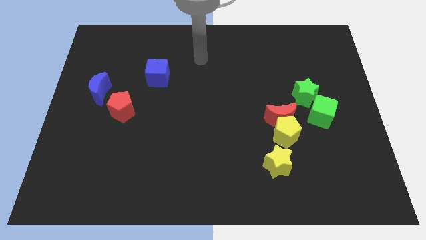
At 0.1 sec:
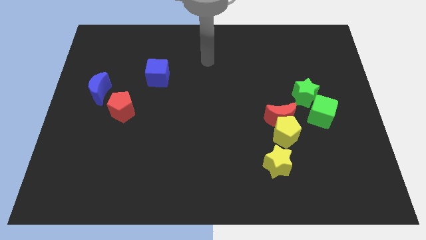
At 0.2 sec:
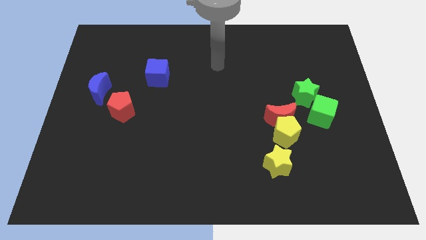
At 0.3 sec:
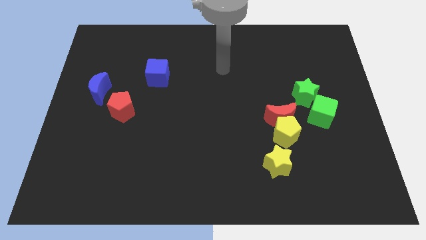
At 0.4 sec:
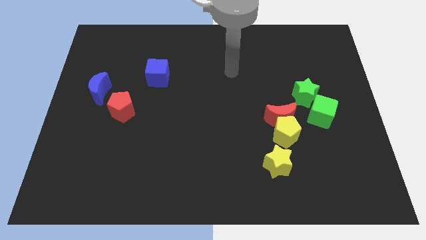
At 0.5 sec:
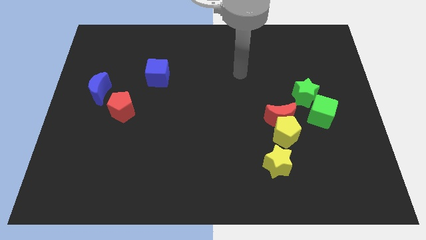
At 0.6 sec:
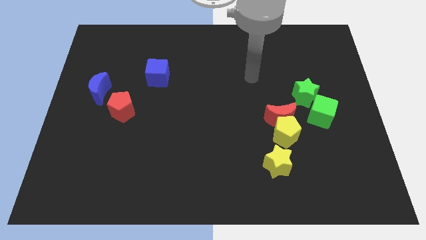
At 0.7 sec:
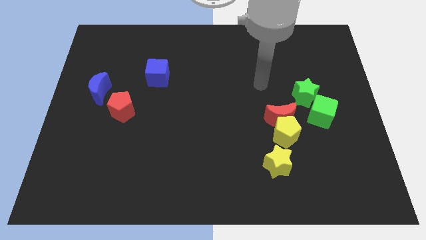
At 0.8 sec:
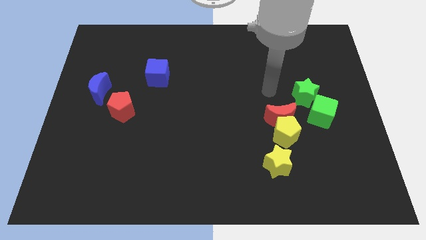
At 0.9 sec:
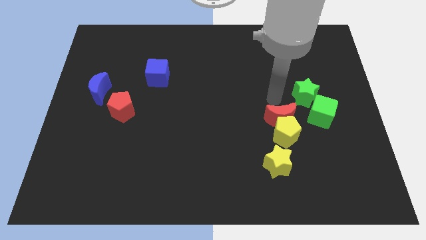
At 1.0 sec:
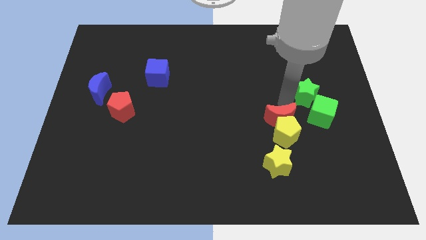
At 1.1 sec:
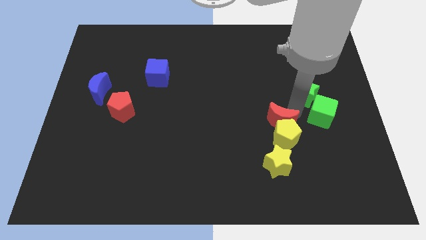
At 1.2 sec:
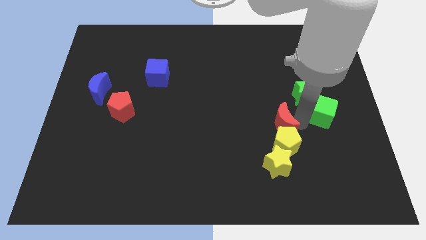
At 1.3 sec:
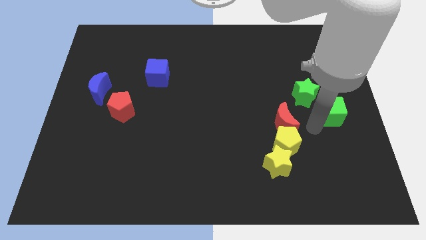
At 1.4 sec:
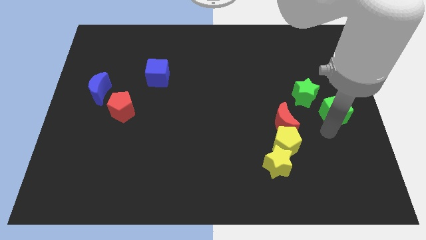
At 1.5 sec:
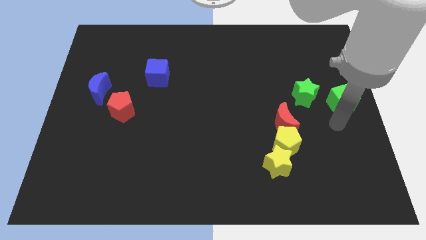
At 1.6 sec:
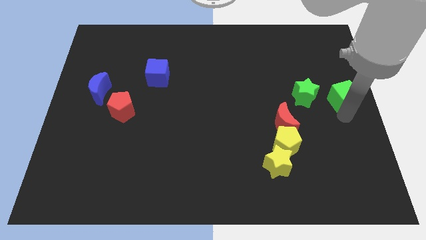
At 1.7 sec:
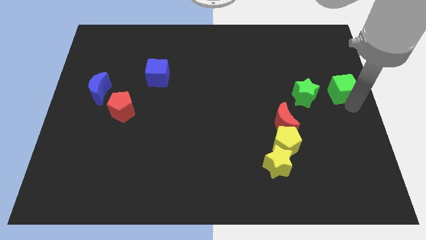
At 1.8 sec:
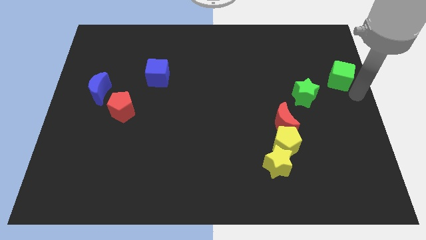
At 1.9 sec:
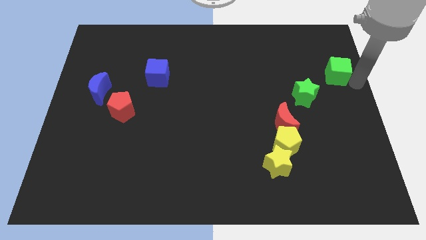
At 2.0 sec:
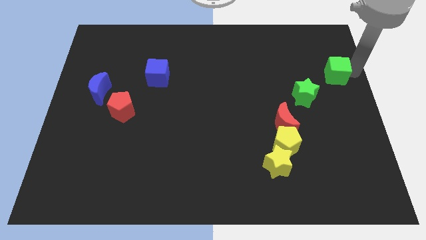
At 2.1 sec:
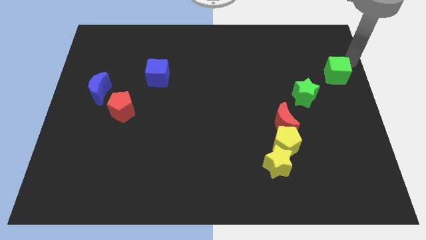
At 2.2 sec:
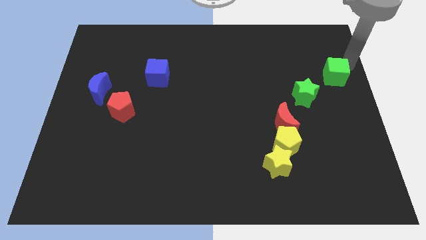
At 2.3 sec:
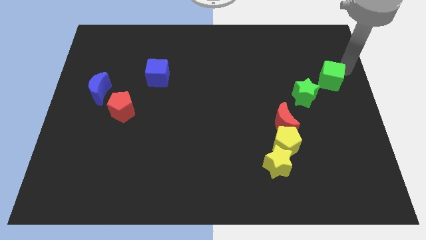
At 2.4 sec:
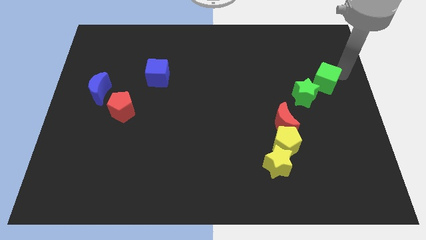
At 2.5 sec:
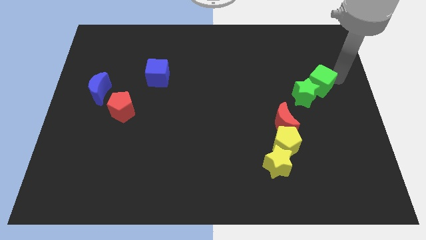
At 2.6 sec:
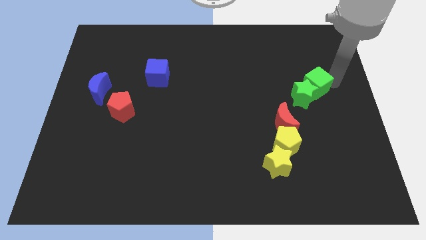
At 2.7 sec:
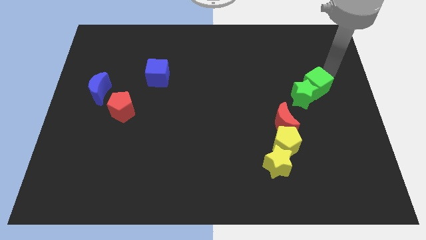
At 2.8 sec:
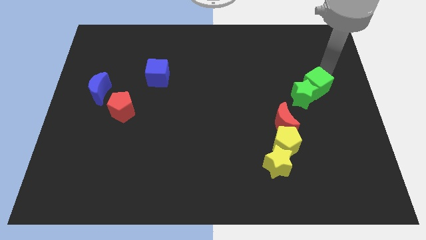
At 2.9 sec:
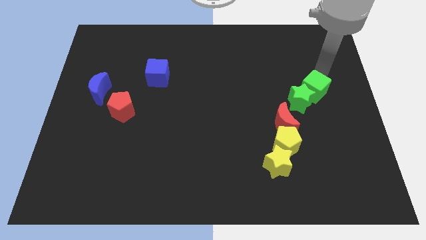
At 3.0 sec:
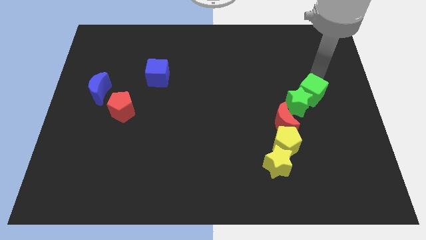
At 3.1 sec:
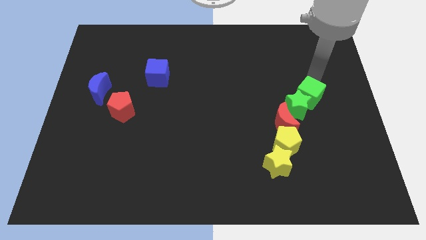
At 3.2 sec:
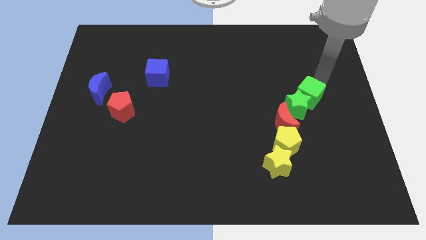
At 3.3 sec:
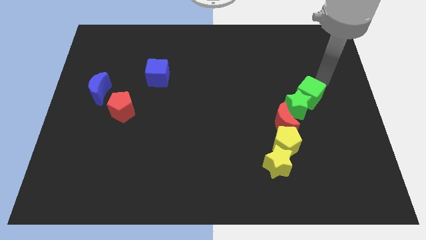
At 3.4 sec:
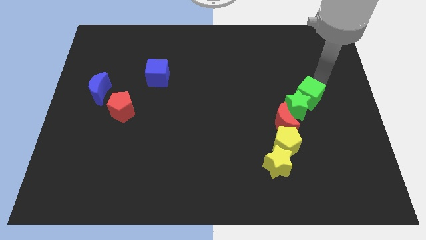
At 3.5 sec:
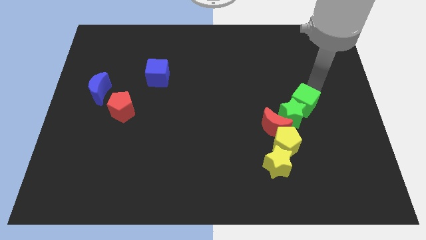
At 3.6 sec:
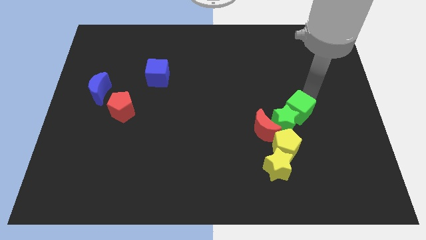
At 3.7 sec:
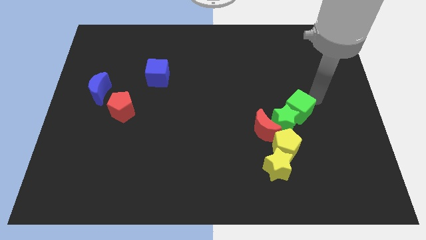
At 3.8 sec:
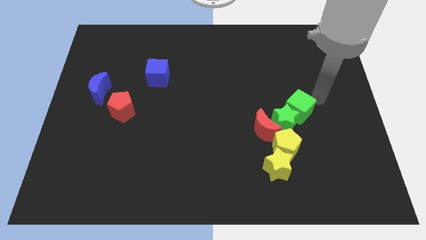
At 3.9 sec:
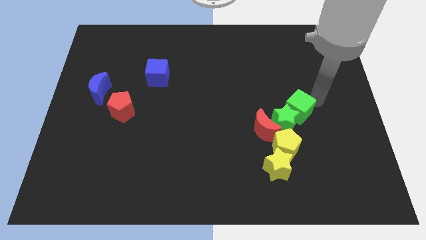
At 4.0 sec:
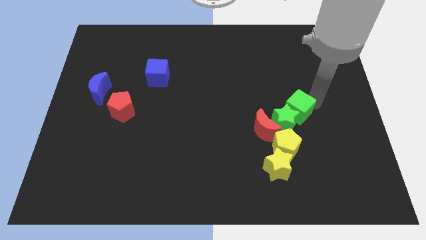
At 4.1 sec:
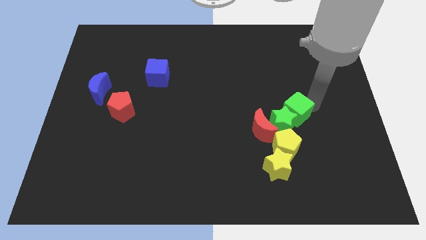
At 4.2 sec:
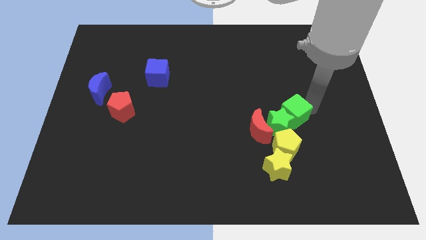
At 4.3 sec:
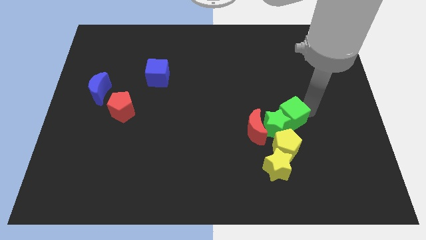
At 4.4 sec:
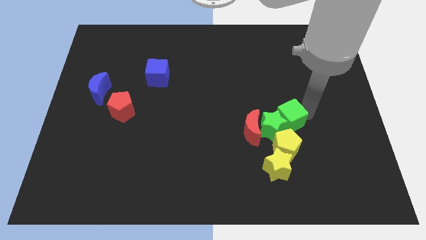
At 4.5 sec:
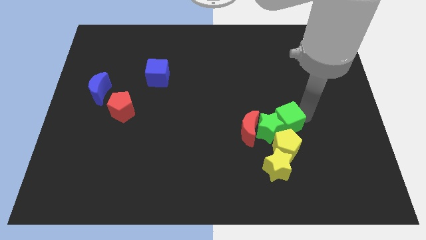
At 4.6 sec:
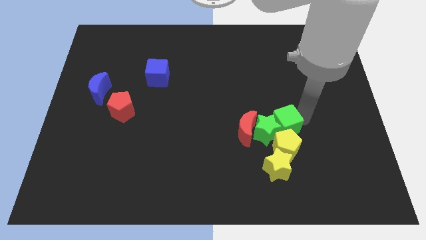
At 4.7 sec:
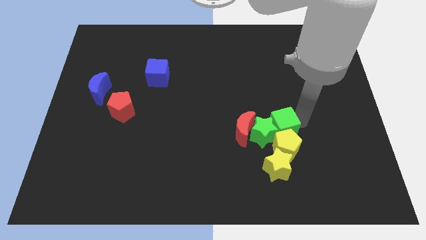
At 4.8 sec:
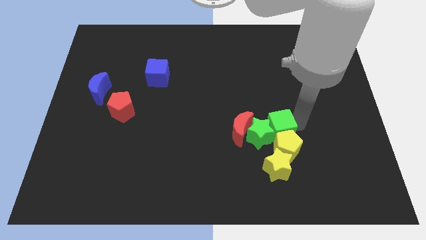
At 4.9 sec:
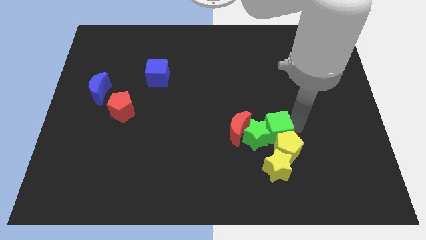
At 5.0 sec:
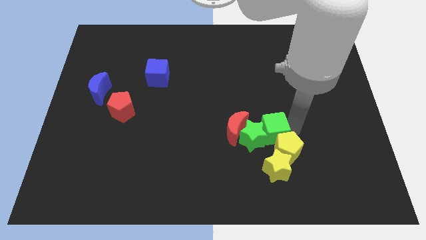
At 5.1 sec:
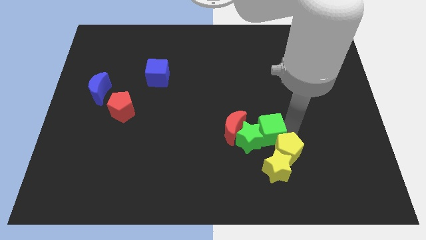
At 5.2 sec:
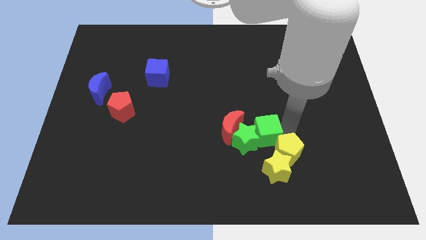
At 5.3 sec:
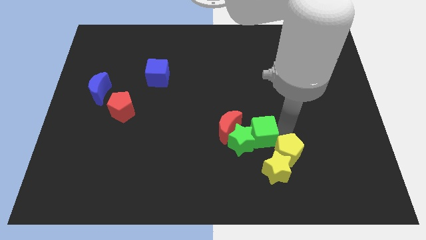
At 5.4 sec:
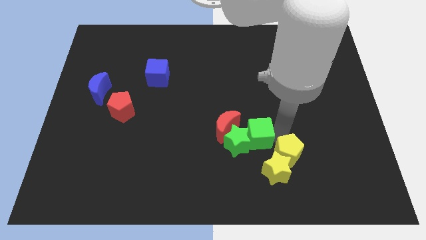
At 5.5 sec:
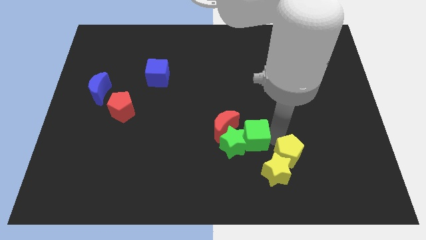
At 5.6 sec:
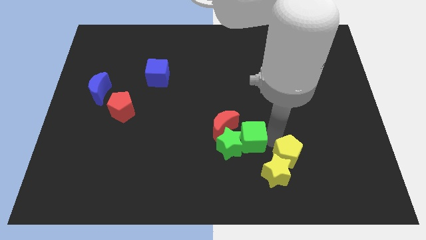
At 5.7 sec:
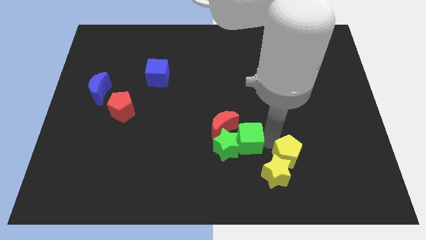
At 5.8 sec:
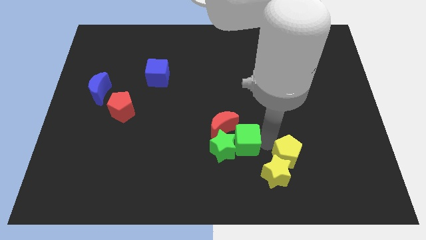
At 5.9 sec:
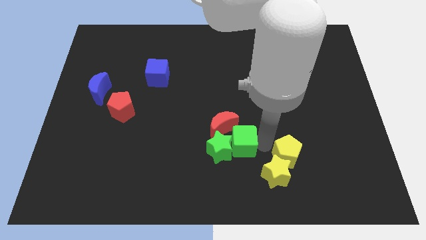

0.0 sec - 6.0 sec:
slide the green cube to the red moon

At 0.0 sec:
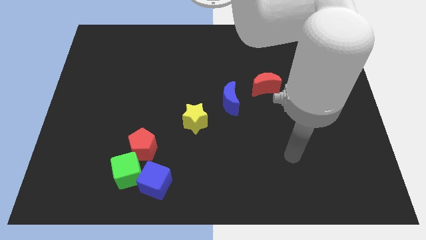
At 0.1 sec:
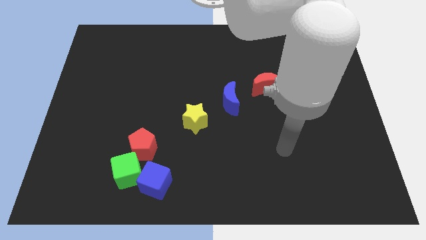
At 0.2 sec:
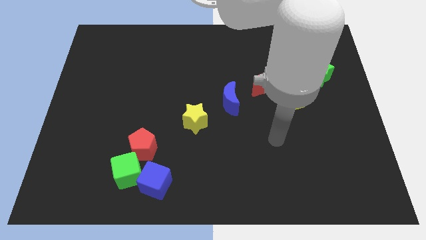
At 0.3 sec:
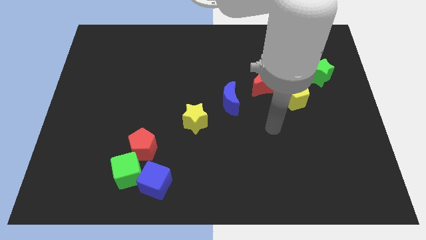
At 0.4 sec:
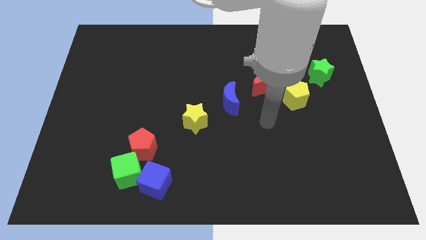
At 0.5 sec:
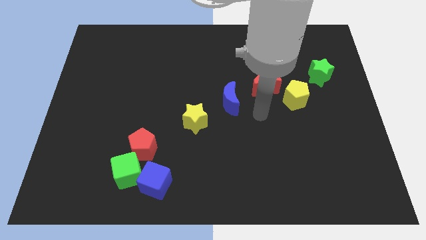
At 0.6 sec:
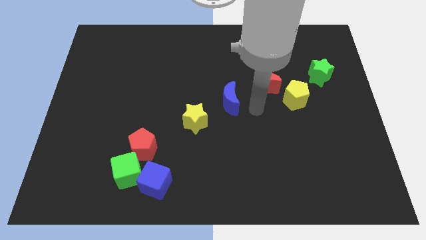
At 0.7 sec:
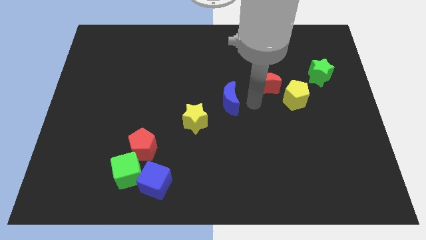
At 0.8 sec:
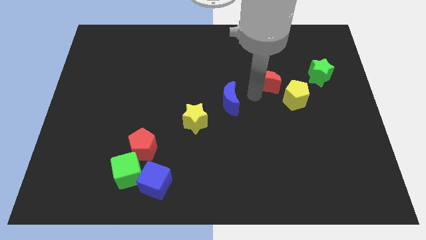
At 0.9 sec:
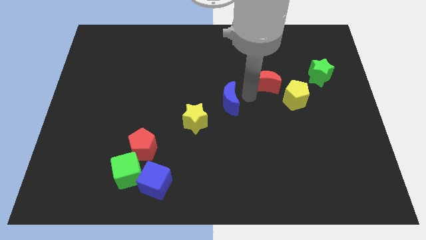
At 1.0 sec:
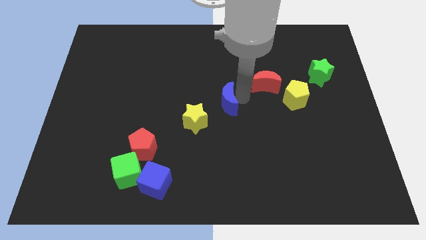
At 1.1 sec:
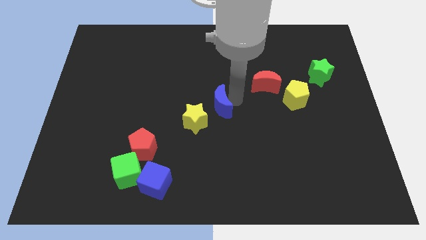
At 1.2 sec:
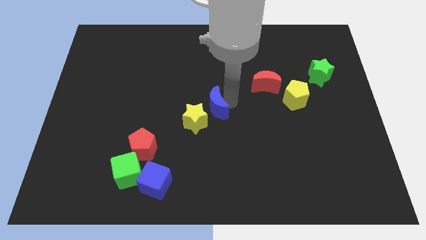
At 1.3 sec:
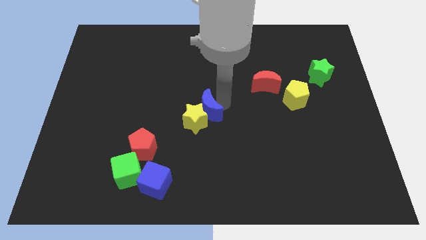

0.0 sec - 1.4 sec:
put the blue moon towards the yellow star

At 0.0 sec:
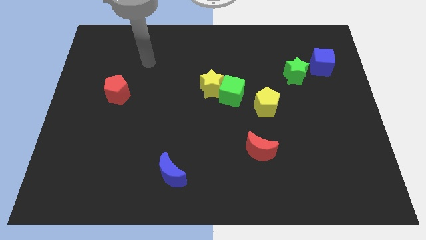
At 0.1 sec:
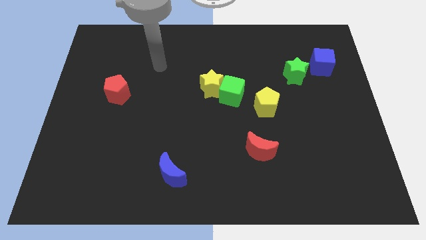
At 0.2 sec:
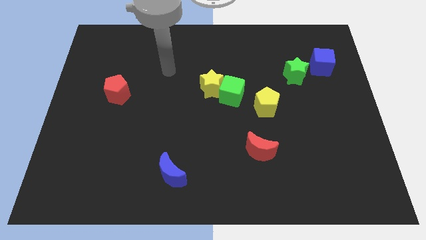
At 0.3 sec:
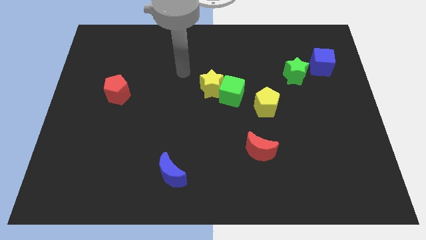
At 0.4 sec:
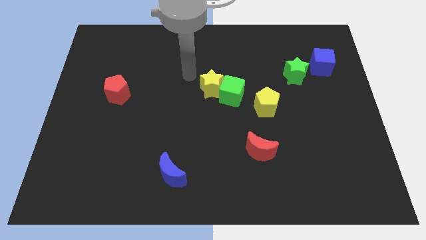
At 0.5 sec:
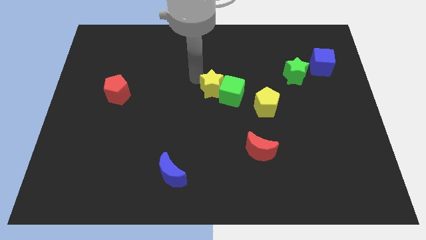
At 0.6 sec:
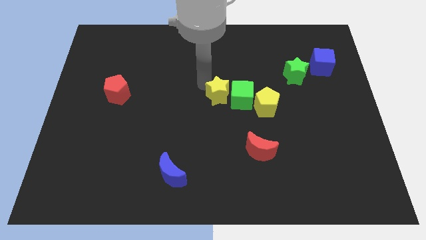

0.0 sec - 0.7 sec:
put the green cube to the yellow pentagon
